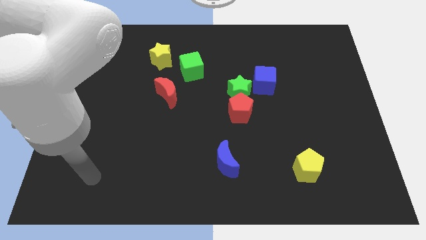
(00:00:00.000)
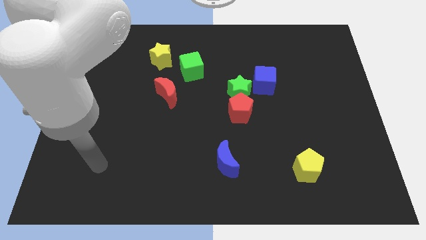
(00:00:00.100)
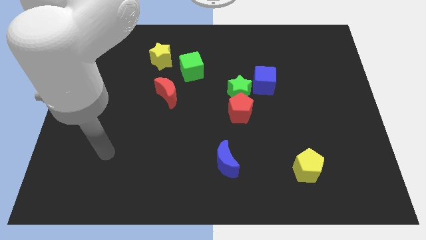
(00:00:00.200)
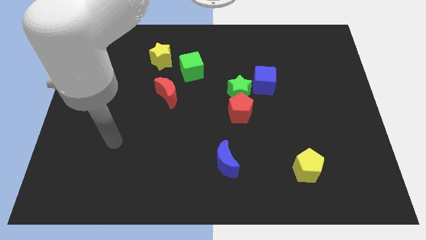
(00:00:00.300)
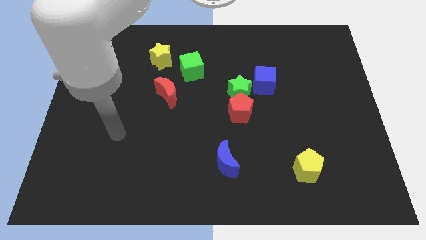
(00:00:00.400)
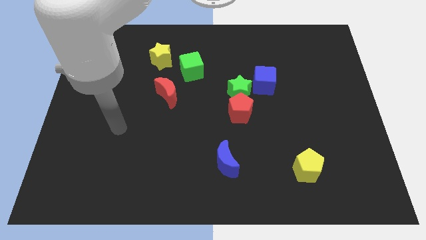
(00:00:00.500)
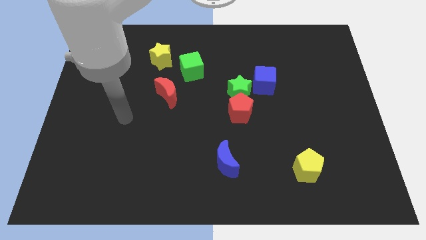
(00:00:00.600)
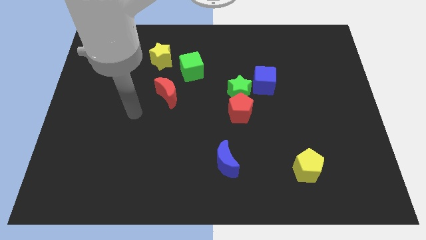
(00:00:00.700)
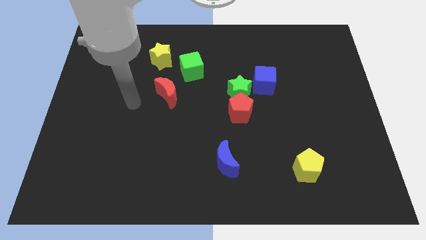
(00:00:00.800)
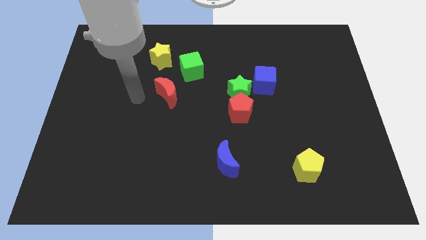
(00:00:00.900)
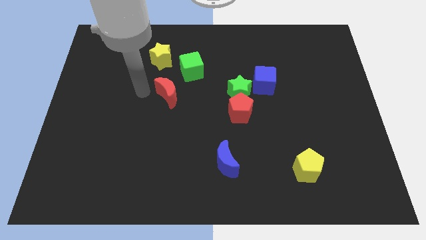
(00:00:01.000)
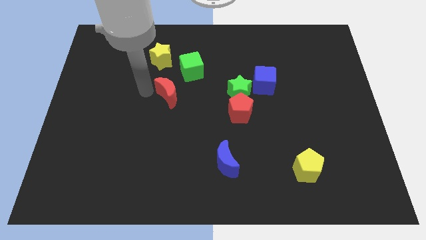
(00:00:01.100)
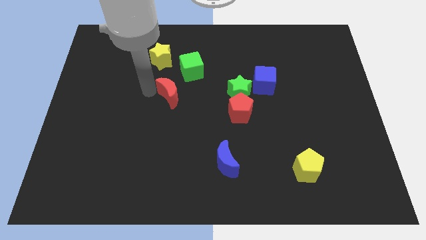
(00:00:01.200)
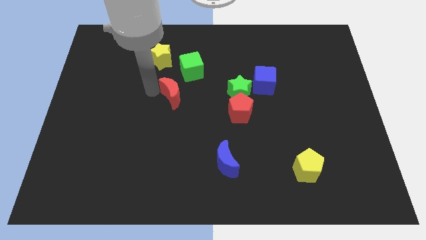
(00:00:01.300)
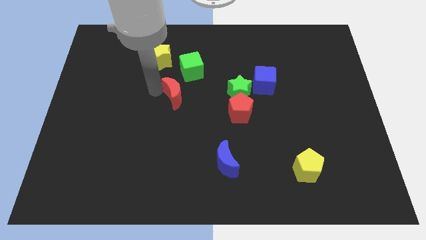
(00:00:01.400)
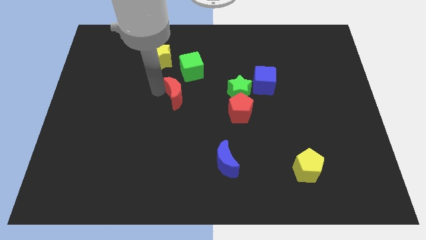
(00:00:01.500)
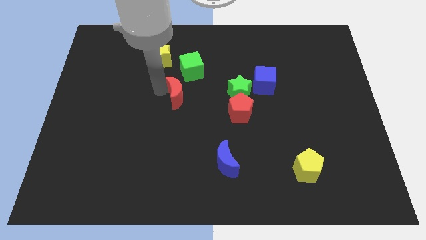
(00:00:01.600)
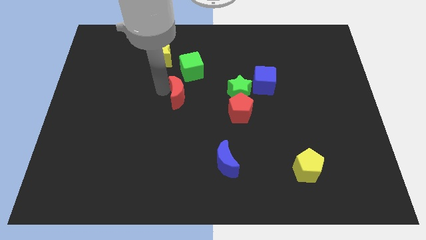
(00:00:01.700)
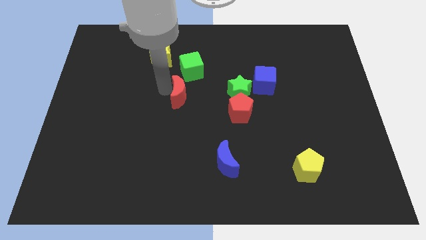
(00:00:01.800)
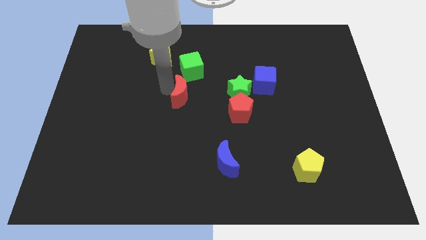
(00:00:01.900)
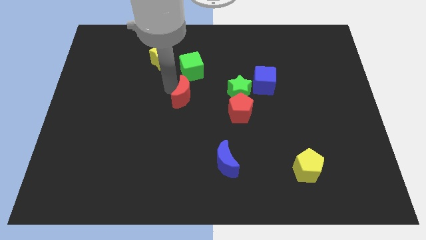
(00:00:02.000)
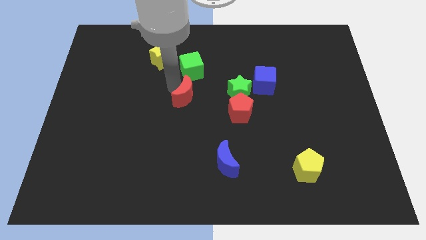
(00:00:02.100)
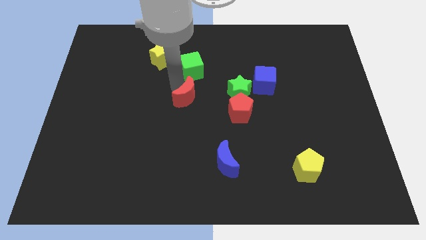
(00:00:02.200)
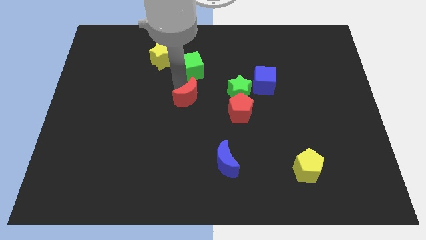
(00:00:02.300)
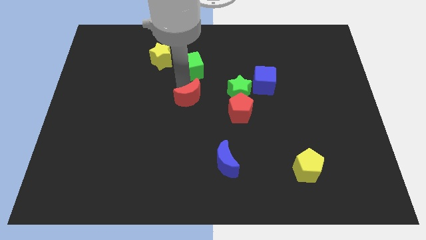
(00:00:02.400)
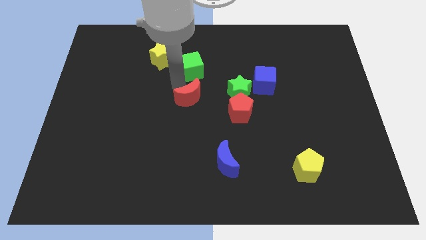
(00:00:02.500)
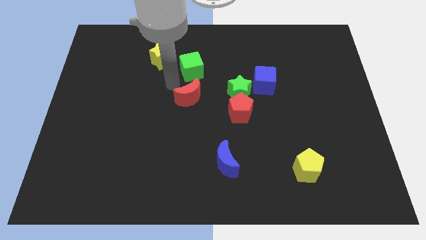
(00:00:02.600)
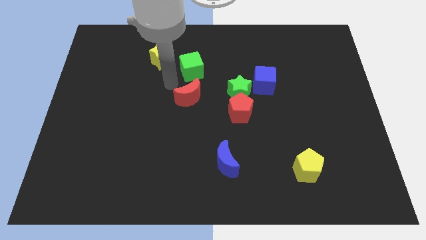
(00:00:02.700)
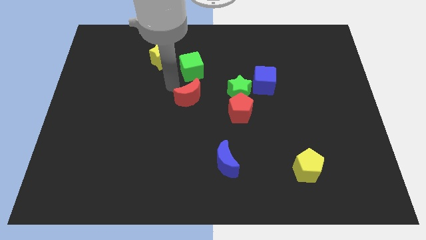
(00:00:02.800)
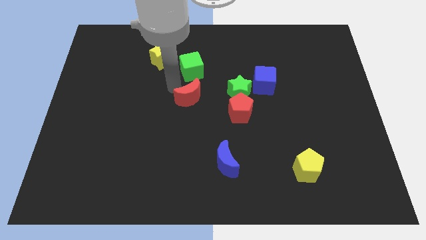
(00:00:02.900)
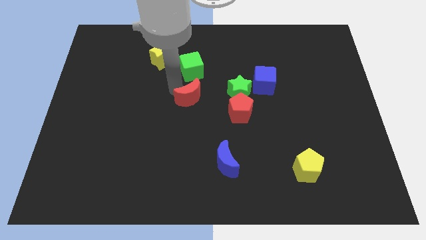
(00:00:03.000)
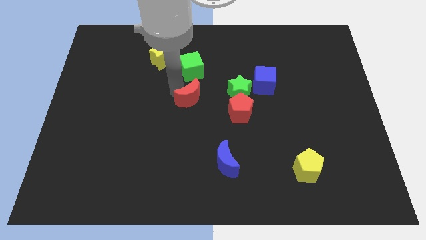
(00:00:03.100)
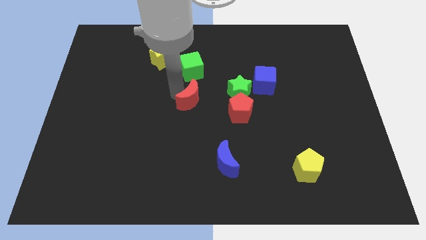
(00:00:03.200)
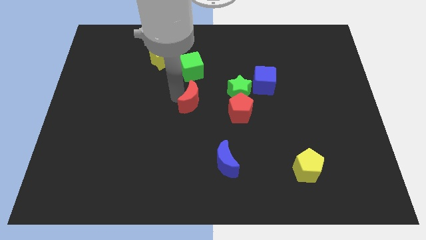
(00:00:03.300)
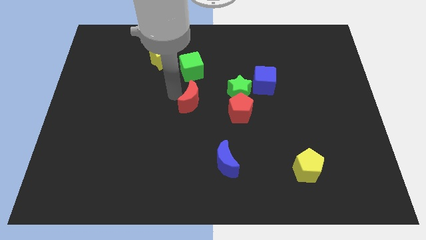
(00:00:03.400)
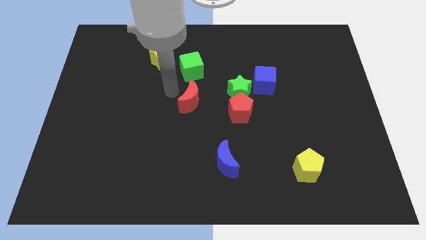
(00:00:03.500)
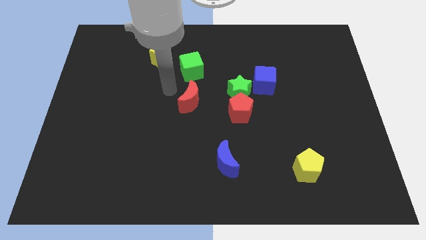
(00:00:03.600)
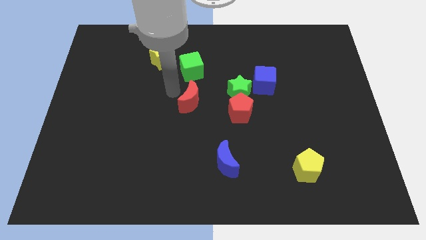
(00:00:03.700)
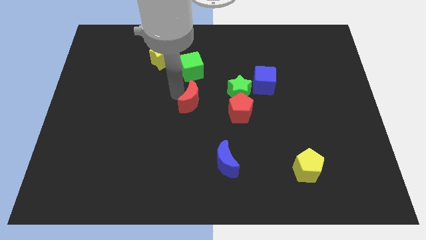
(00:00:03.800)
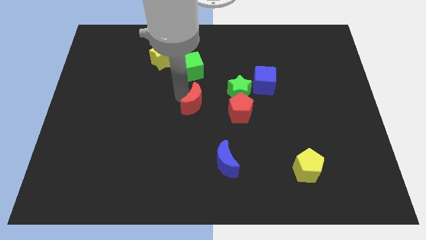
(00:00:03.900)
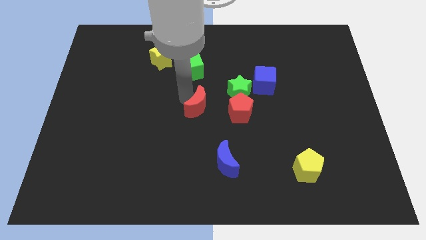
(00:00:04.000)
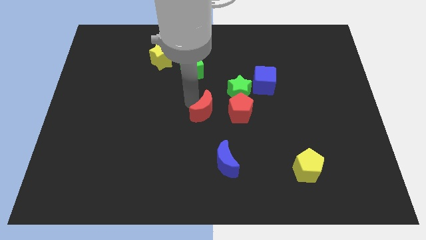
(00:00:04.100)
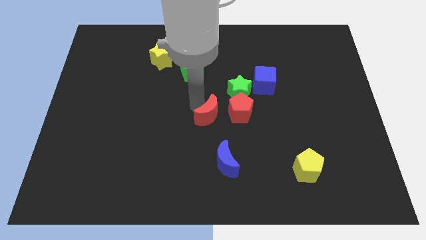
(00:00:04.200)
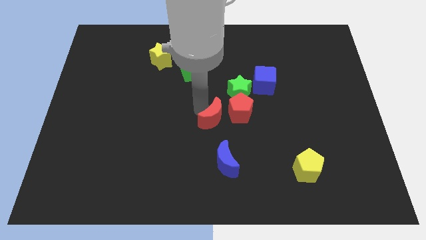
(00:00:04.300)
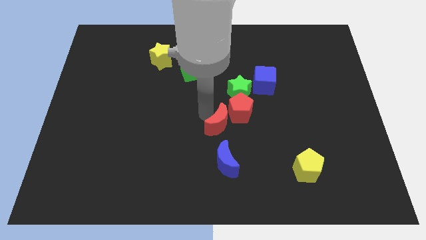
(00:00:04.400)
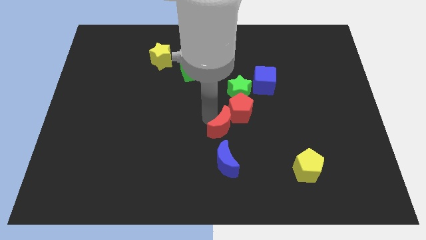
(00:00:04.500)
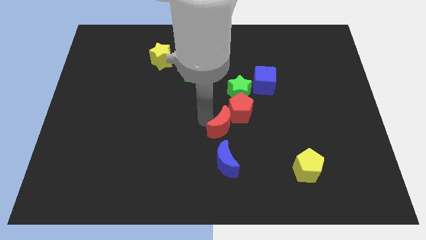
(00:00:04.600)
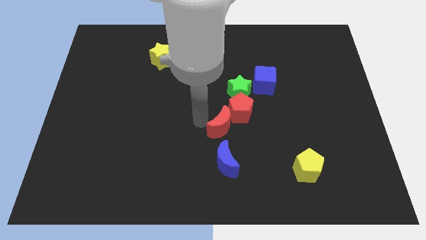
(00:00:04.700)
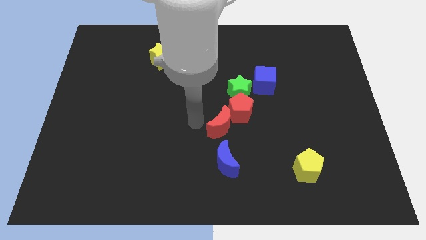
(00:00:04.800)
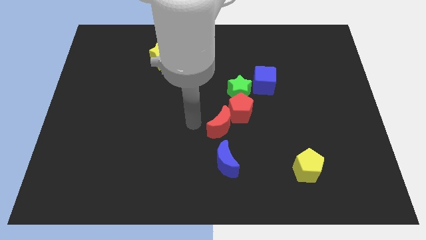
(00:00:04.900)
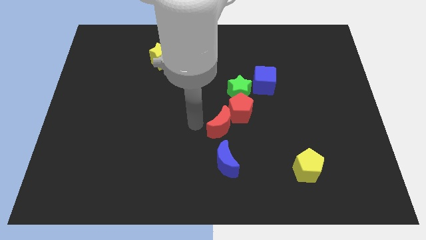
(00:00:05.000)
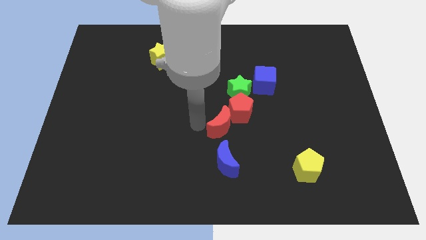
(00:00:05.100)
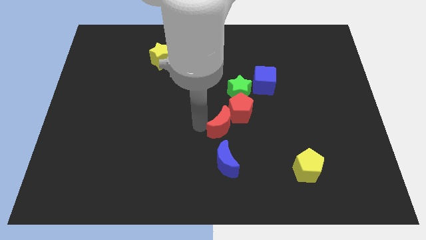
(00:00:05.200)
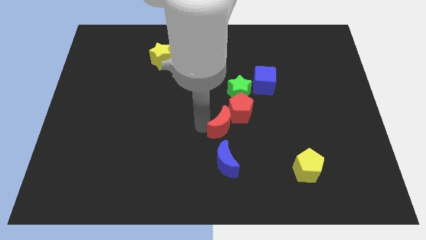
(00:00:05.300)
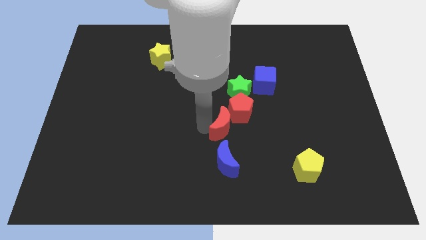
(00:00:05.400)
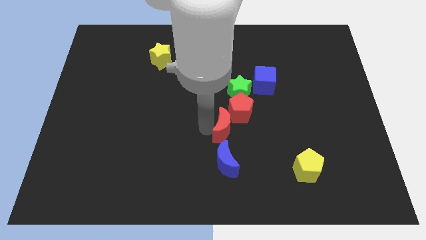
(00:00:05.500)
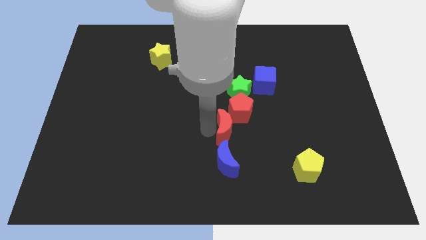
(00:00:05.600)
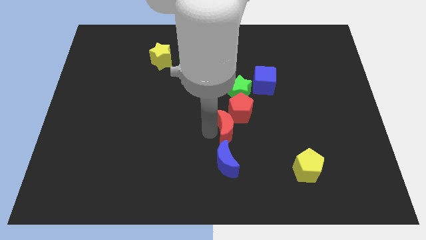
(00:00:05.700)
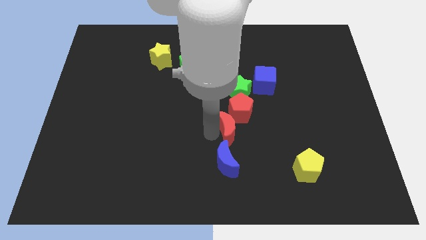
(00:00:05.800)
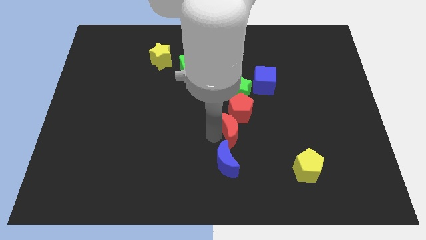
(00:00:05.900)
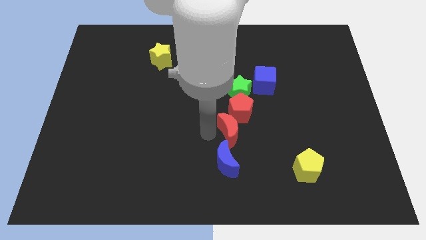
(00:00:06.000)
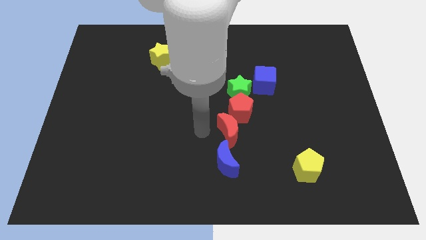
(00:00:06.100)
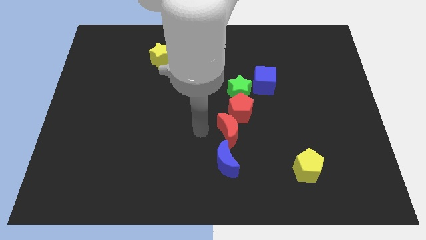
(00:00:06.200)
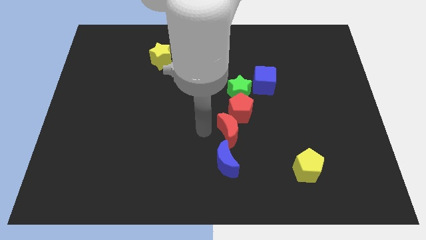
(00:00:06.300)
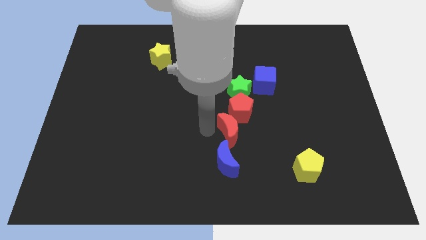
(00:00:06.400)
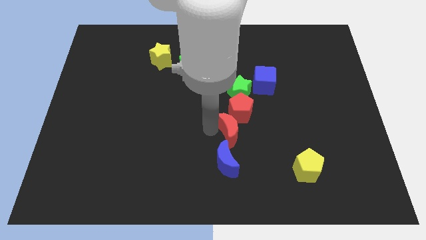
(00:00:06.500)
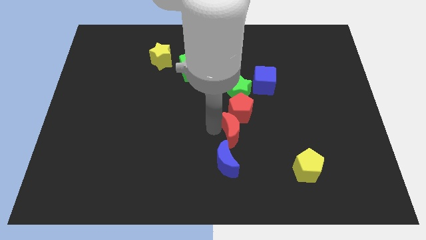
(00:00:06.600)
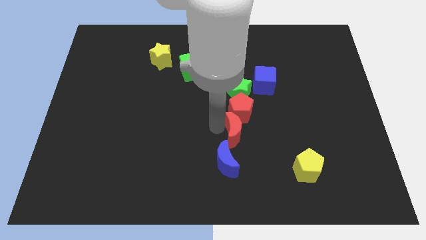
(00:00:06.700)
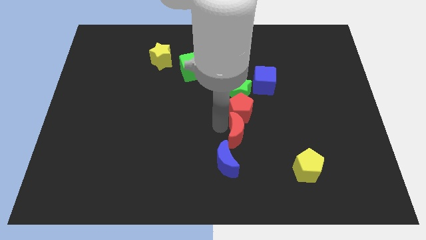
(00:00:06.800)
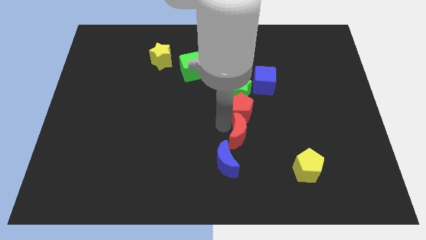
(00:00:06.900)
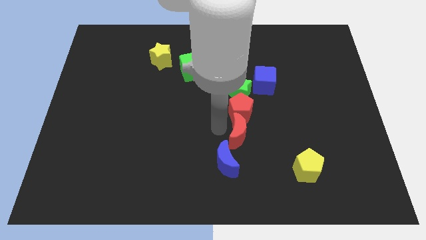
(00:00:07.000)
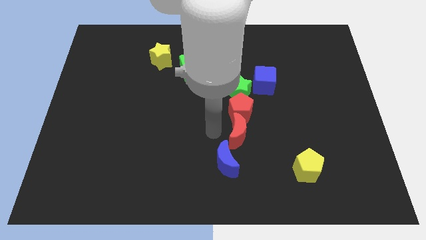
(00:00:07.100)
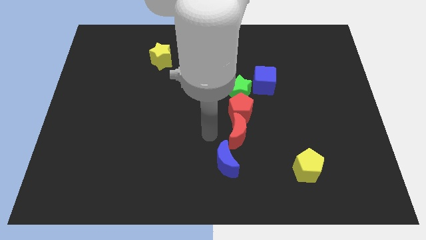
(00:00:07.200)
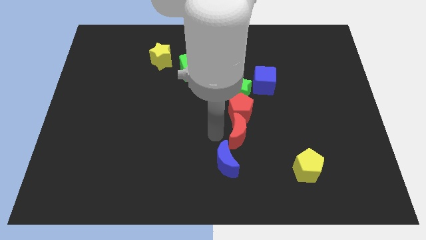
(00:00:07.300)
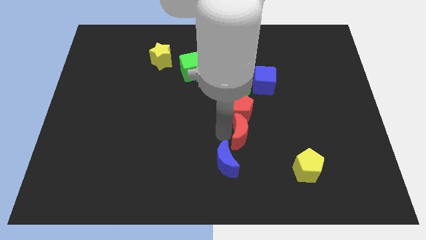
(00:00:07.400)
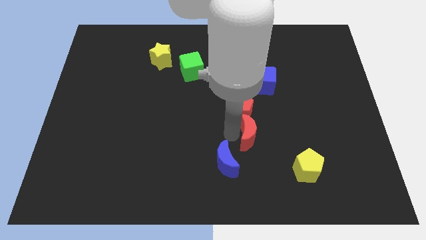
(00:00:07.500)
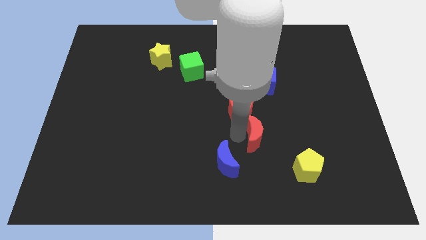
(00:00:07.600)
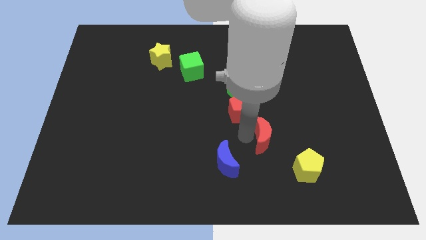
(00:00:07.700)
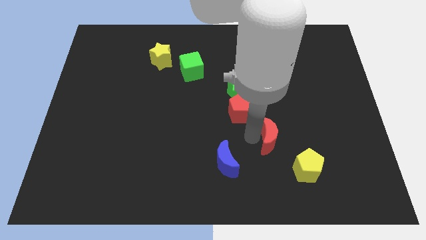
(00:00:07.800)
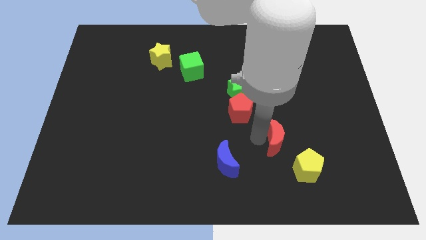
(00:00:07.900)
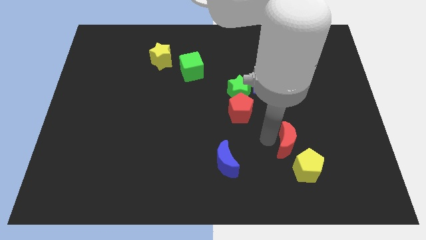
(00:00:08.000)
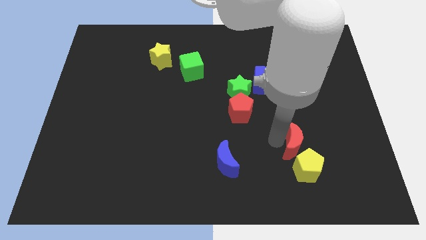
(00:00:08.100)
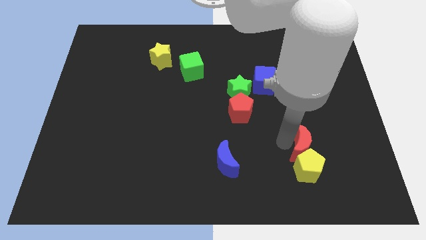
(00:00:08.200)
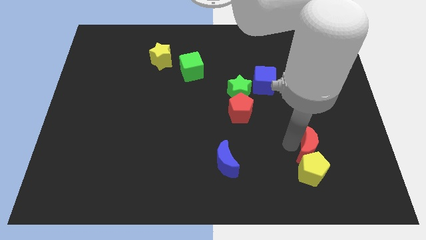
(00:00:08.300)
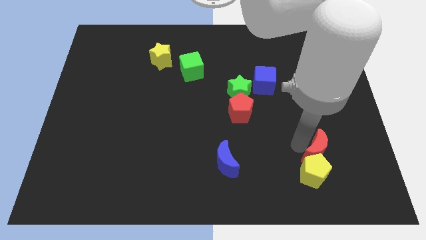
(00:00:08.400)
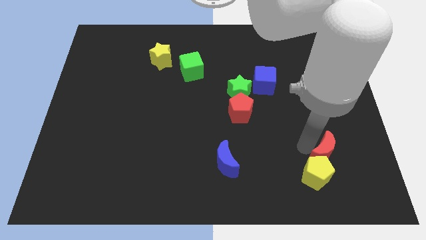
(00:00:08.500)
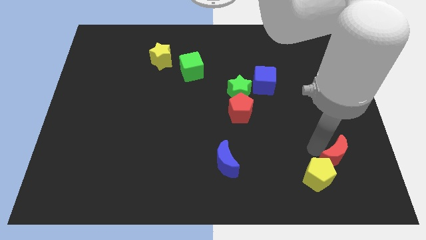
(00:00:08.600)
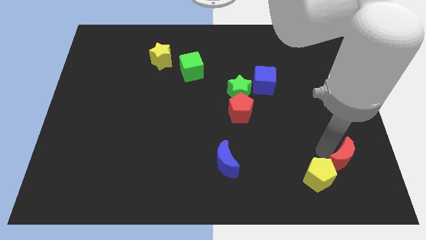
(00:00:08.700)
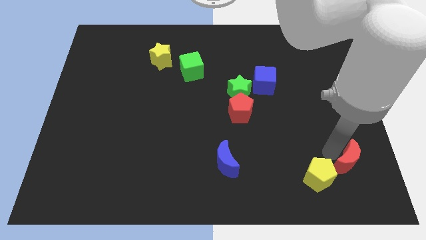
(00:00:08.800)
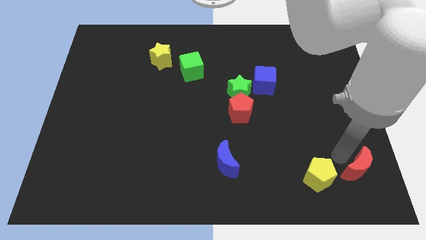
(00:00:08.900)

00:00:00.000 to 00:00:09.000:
put the red moon to the bottom right
